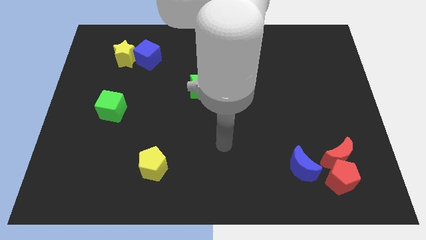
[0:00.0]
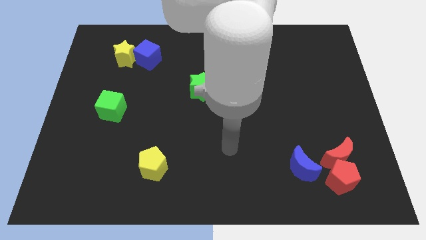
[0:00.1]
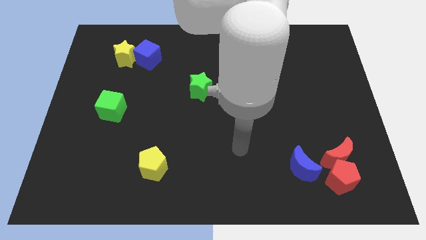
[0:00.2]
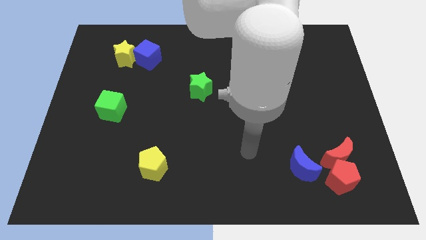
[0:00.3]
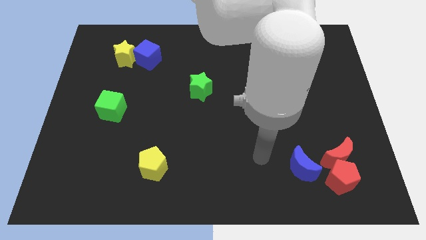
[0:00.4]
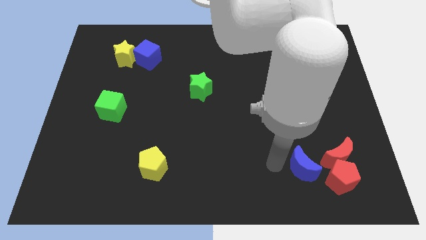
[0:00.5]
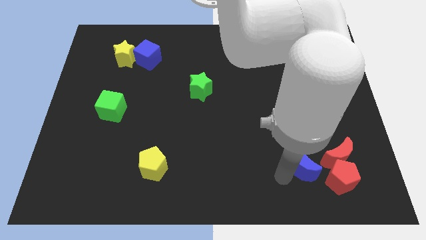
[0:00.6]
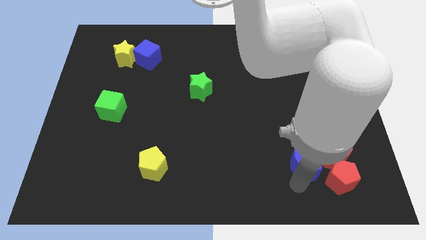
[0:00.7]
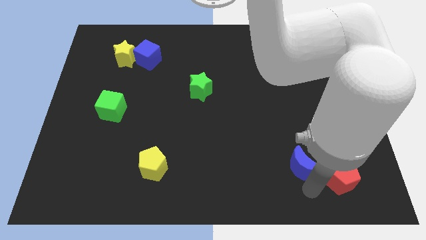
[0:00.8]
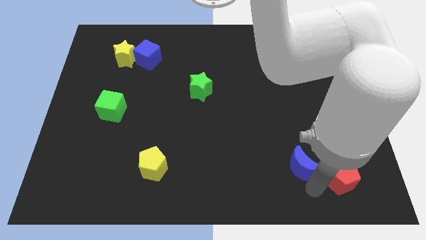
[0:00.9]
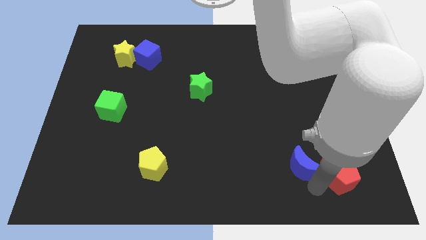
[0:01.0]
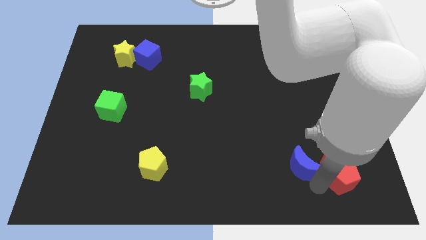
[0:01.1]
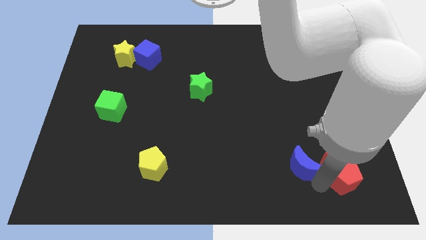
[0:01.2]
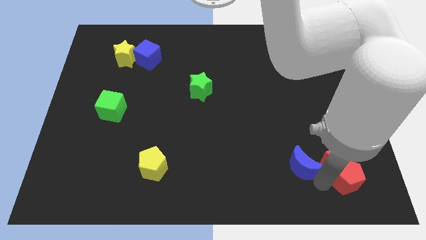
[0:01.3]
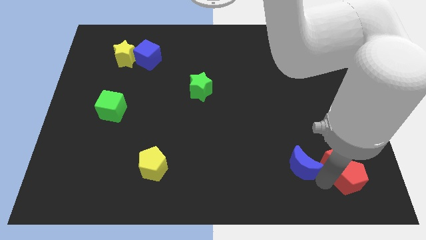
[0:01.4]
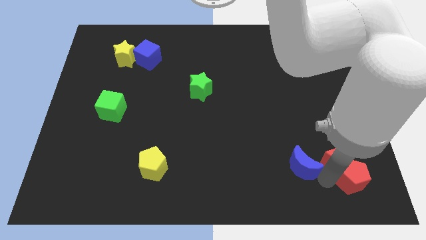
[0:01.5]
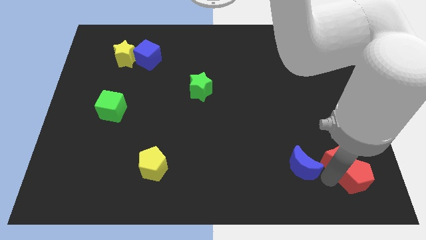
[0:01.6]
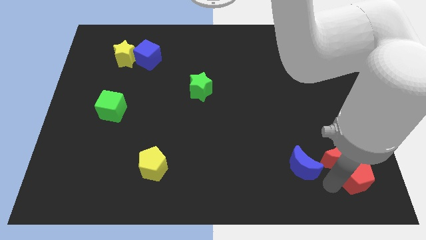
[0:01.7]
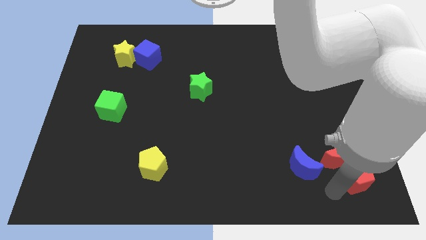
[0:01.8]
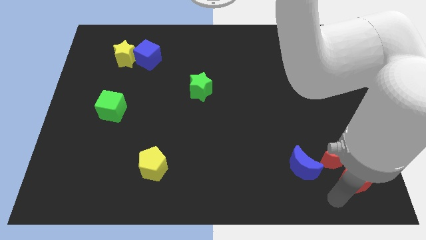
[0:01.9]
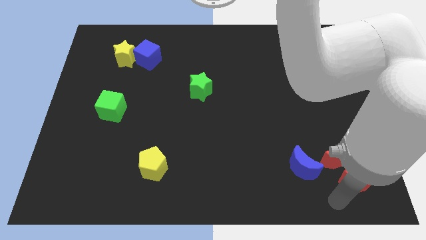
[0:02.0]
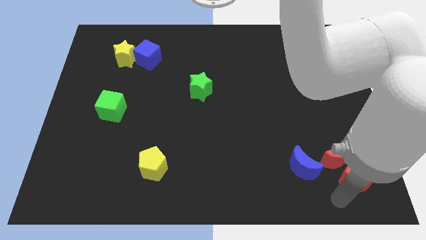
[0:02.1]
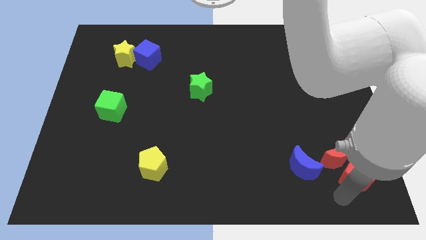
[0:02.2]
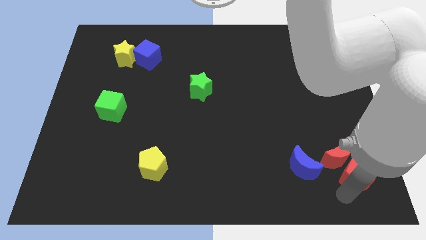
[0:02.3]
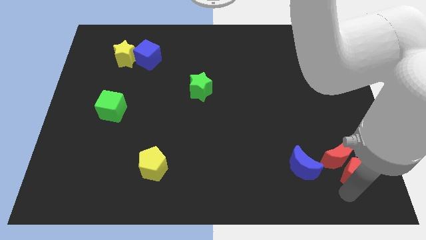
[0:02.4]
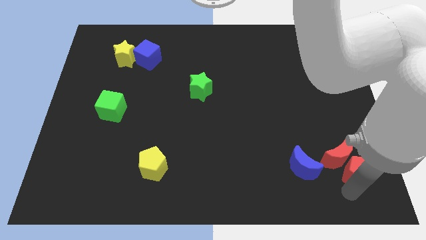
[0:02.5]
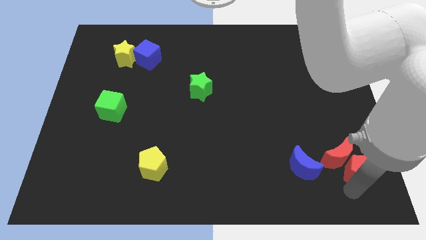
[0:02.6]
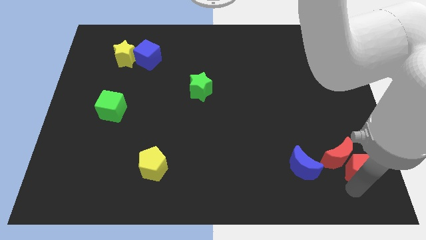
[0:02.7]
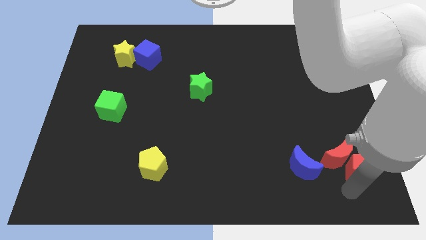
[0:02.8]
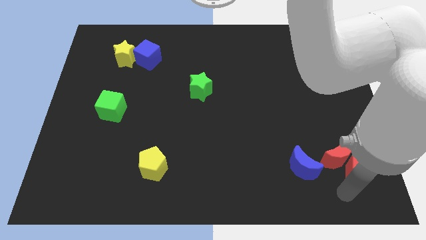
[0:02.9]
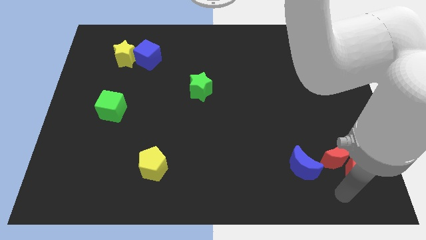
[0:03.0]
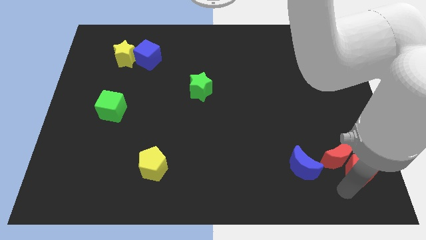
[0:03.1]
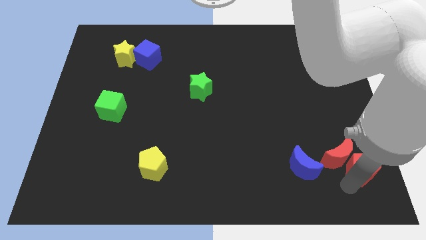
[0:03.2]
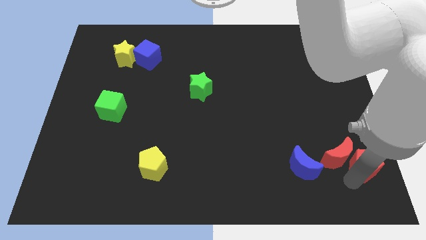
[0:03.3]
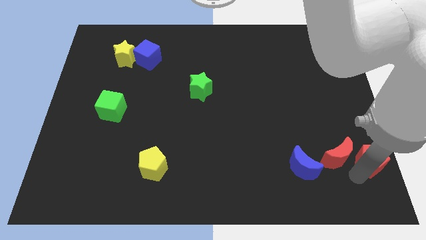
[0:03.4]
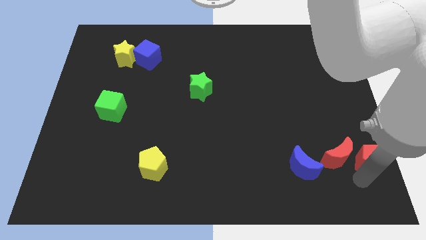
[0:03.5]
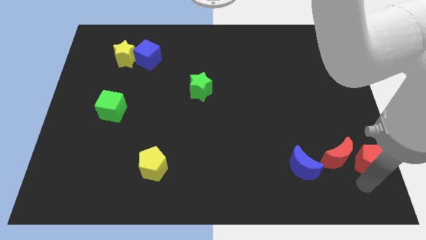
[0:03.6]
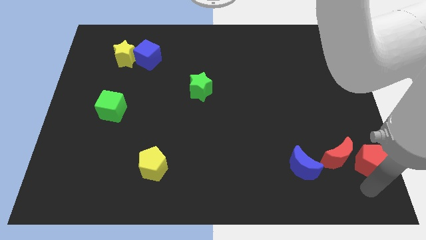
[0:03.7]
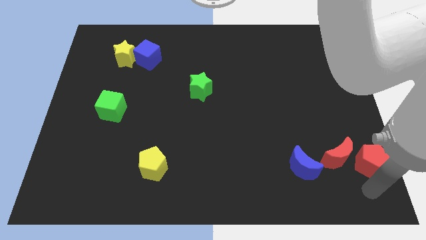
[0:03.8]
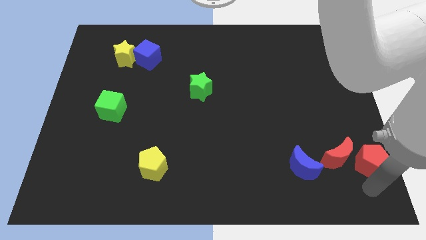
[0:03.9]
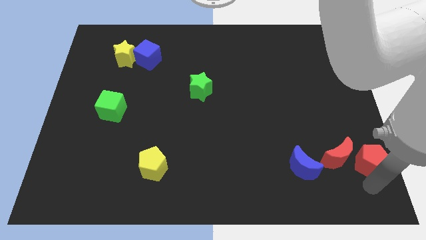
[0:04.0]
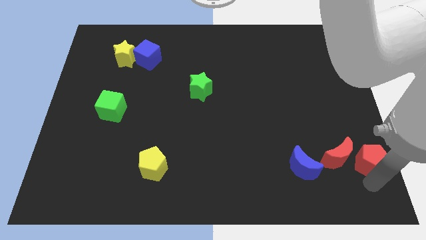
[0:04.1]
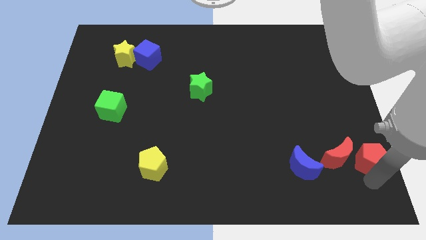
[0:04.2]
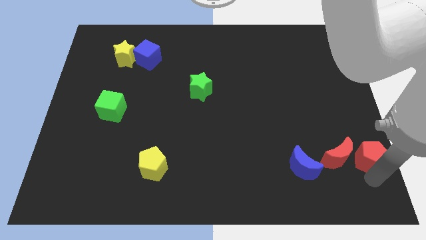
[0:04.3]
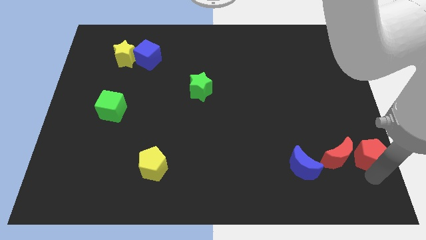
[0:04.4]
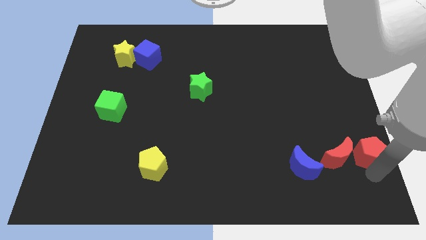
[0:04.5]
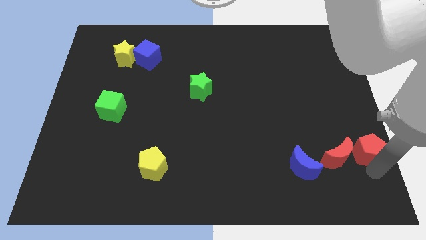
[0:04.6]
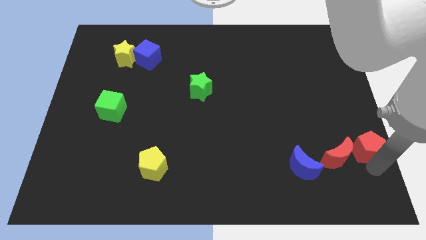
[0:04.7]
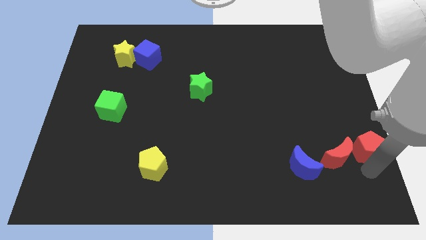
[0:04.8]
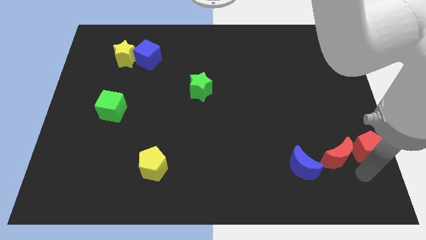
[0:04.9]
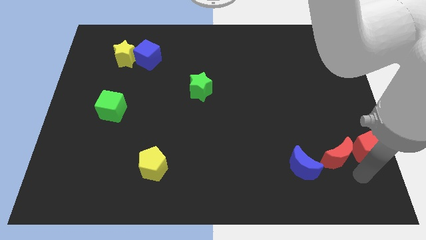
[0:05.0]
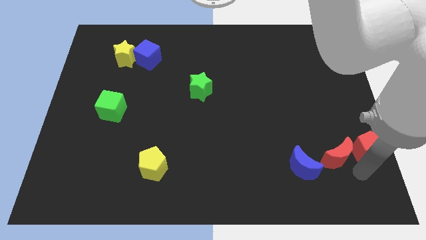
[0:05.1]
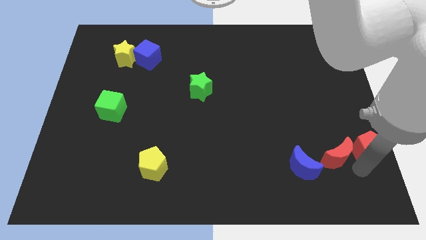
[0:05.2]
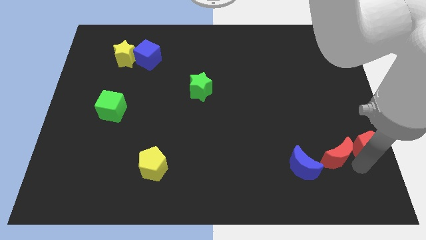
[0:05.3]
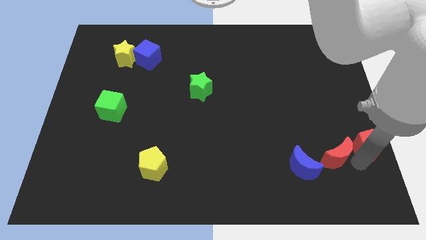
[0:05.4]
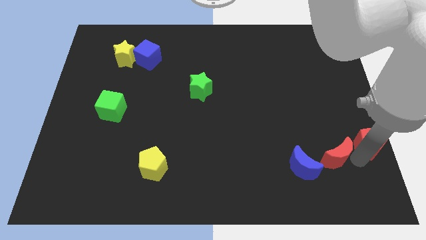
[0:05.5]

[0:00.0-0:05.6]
put the red pentagon to the center right

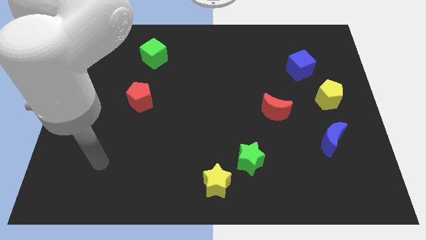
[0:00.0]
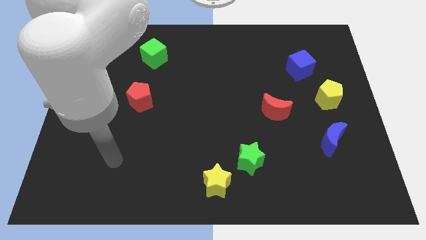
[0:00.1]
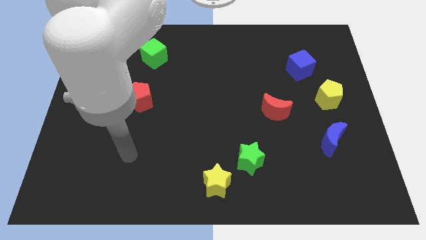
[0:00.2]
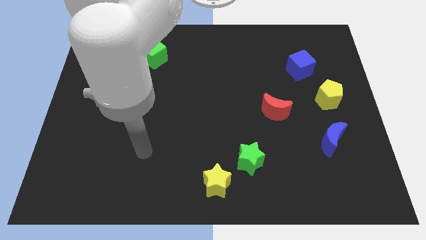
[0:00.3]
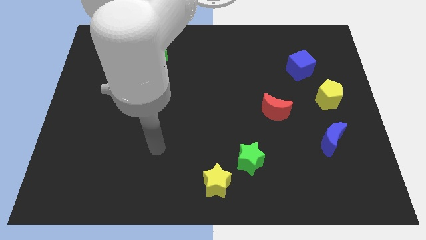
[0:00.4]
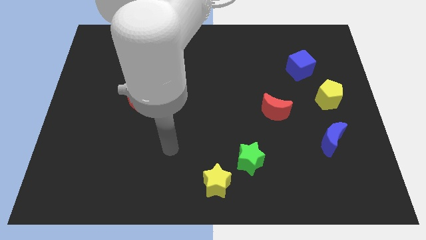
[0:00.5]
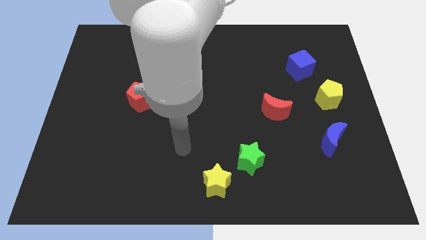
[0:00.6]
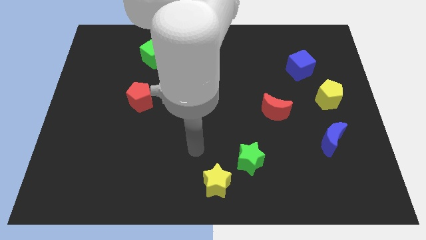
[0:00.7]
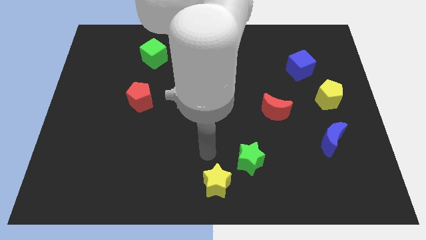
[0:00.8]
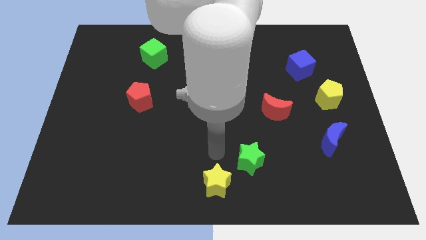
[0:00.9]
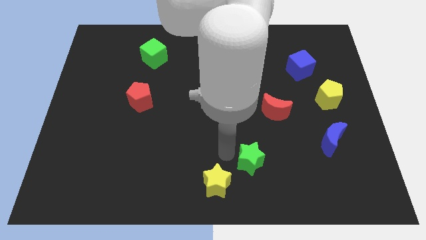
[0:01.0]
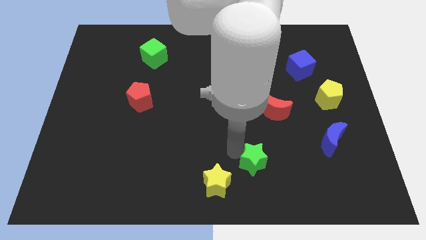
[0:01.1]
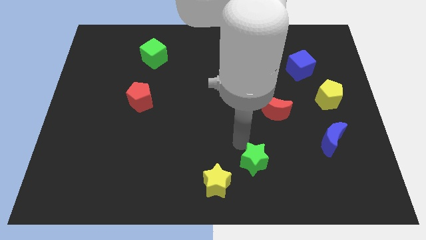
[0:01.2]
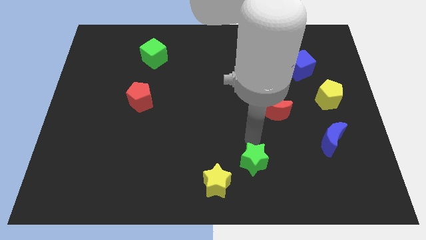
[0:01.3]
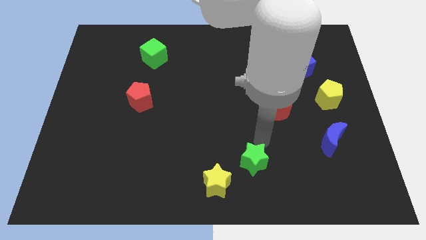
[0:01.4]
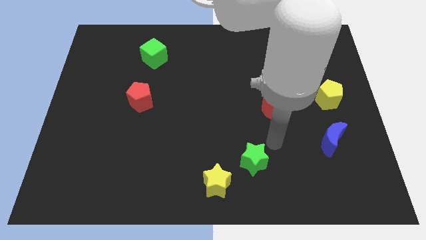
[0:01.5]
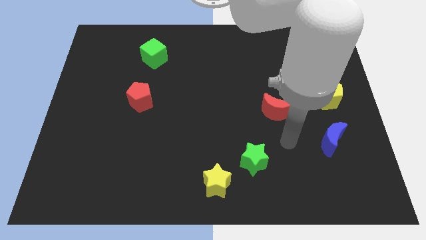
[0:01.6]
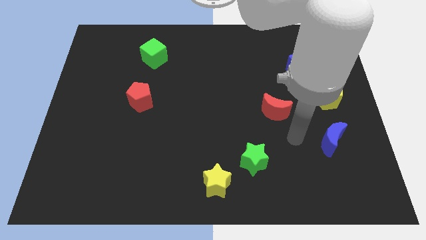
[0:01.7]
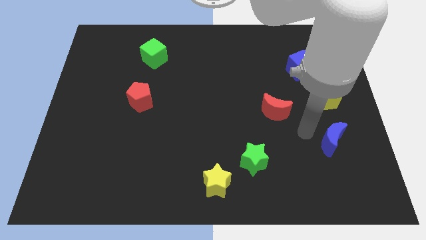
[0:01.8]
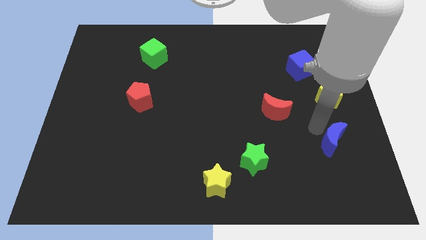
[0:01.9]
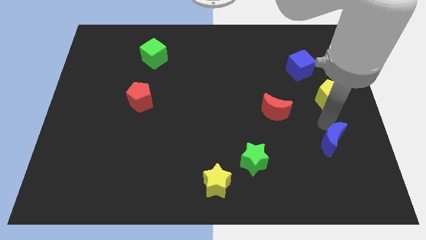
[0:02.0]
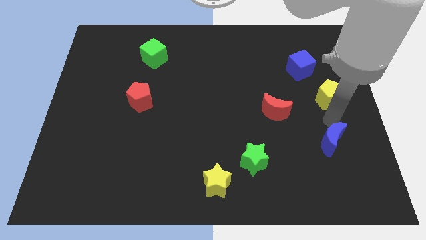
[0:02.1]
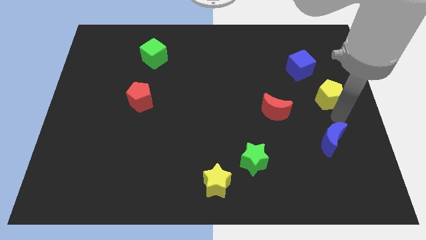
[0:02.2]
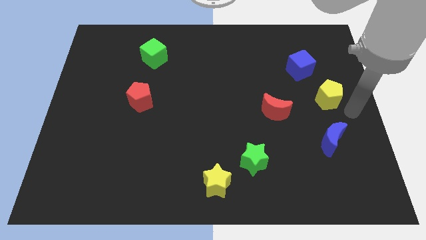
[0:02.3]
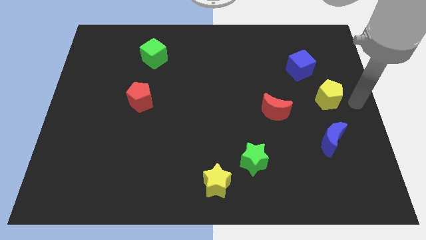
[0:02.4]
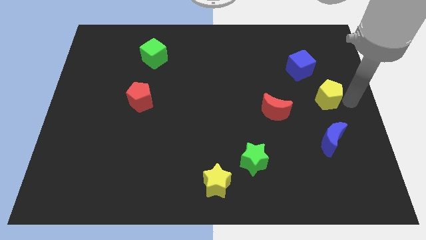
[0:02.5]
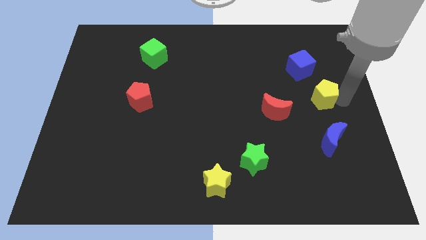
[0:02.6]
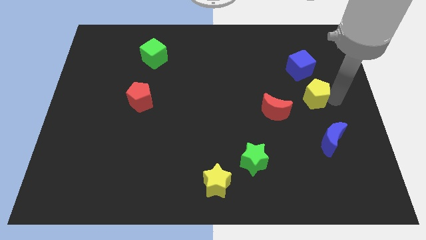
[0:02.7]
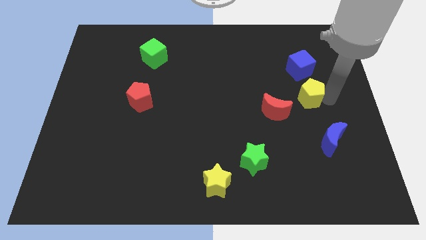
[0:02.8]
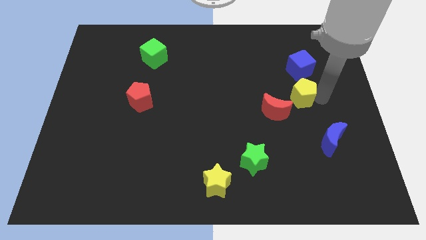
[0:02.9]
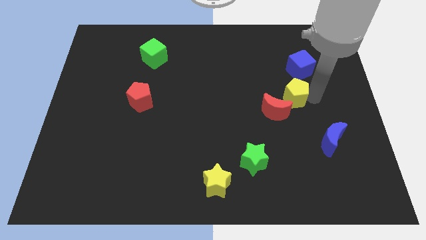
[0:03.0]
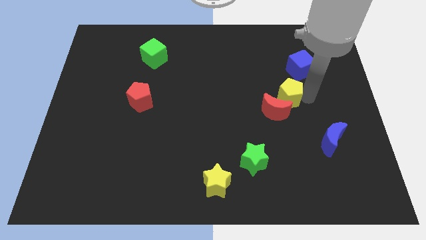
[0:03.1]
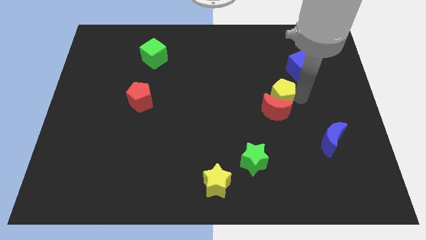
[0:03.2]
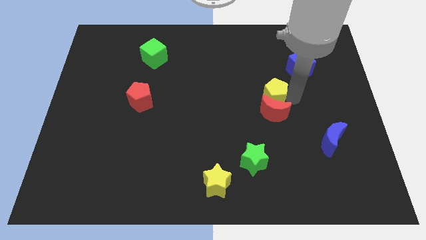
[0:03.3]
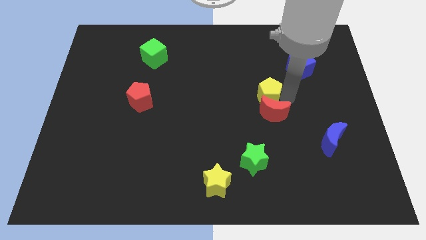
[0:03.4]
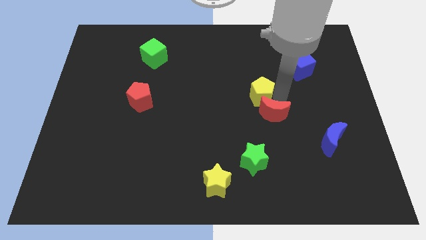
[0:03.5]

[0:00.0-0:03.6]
push the yellow pentagon to the middle
